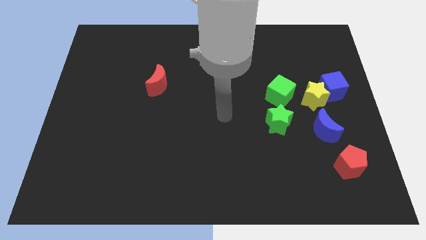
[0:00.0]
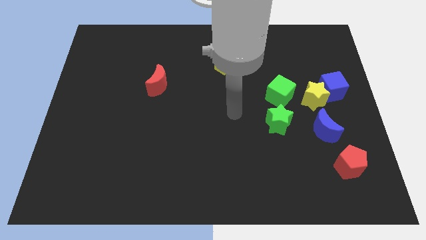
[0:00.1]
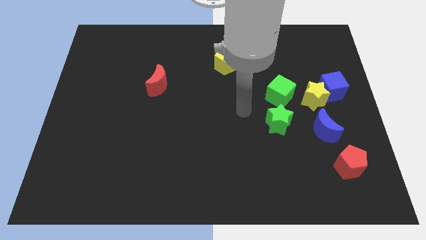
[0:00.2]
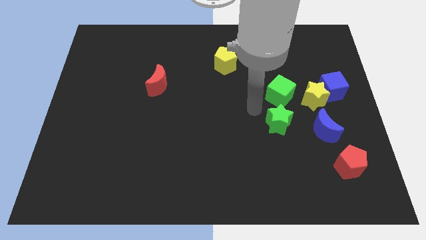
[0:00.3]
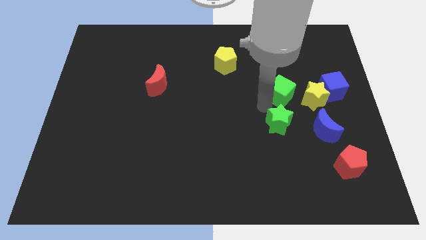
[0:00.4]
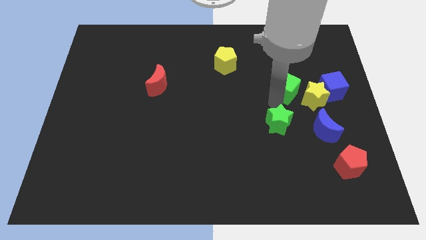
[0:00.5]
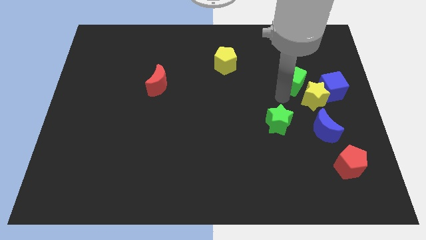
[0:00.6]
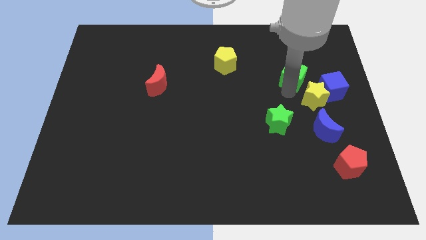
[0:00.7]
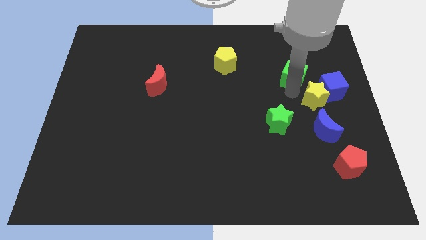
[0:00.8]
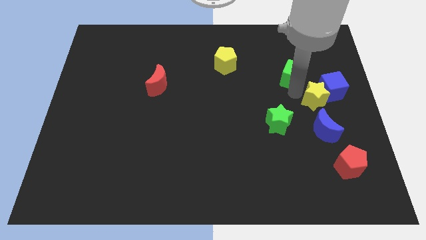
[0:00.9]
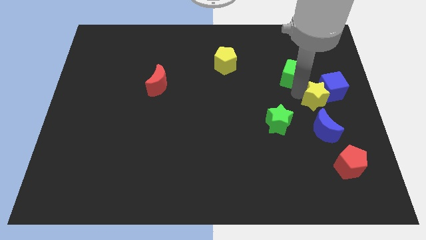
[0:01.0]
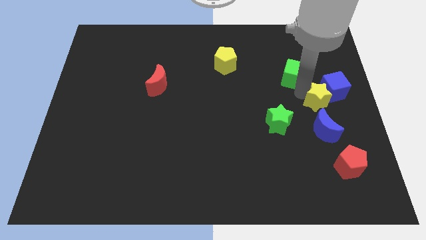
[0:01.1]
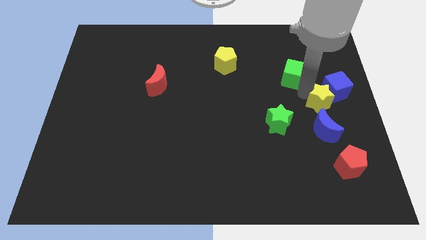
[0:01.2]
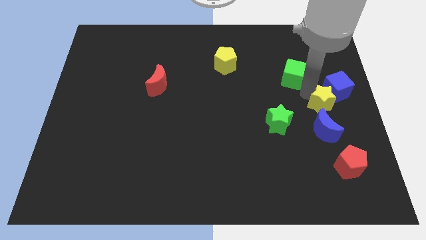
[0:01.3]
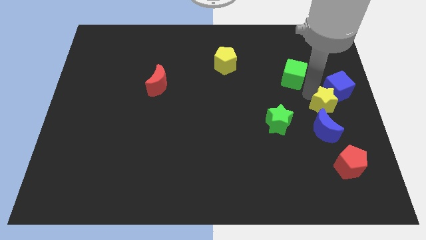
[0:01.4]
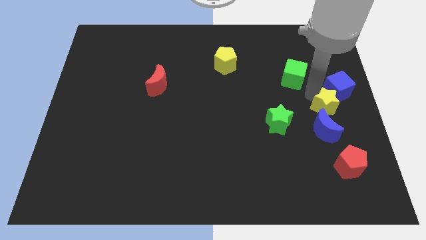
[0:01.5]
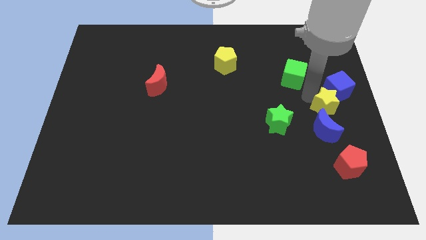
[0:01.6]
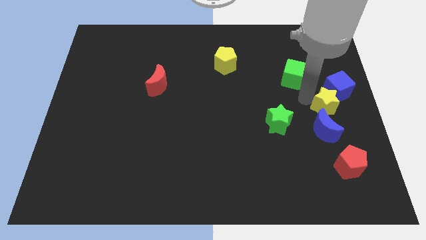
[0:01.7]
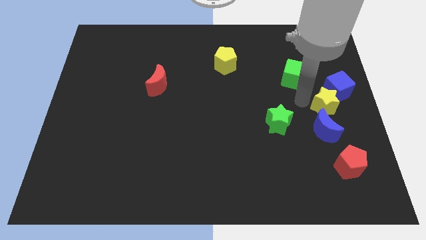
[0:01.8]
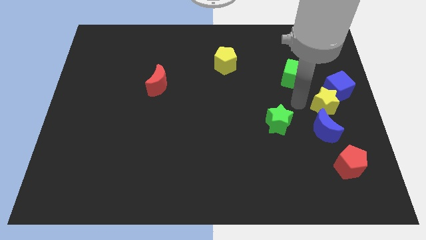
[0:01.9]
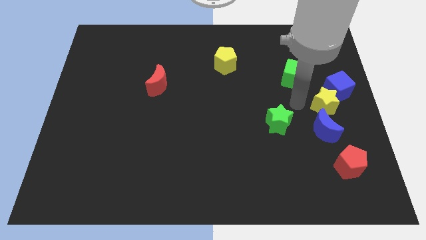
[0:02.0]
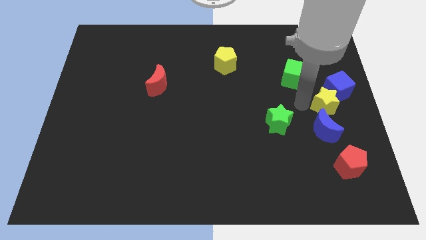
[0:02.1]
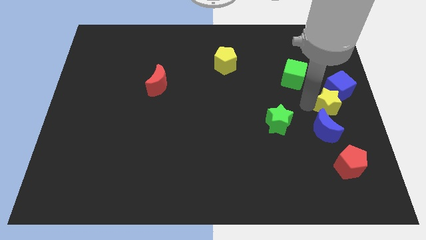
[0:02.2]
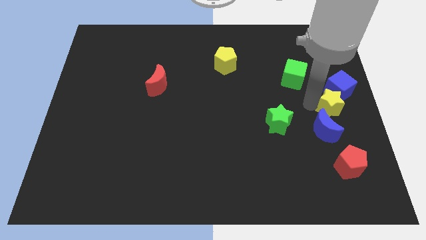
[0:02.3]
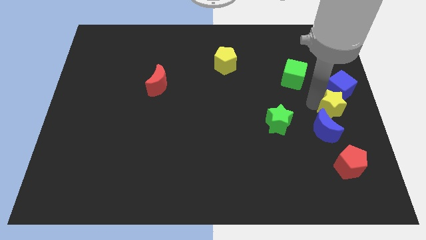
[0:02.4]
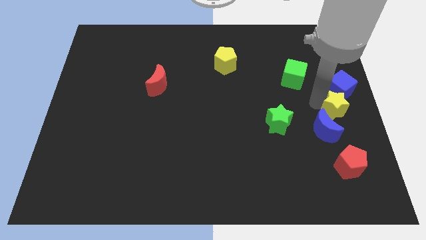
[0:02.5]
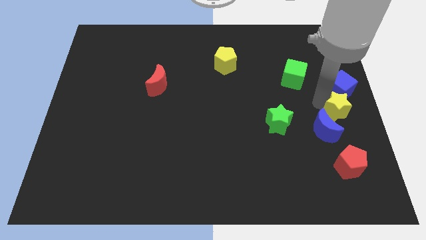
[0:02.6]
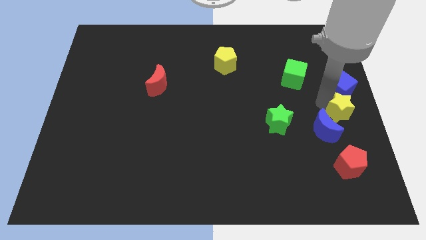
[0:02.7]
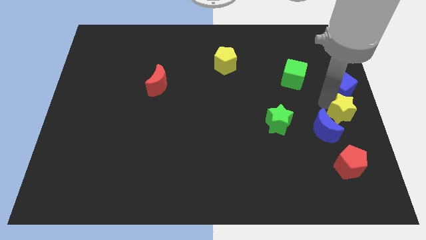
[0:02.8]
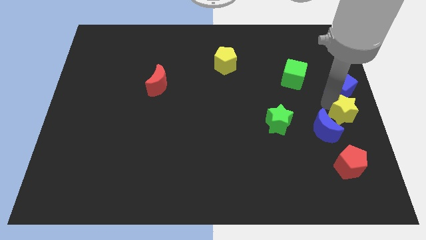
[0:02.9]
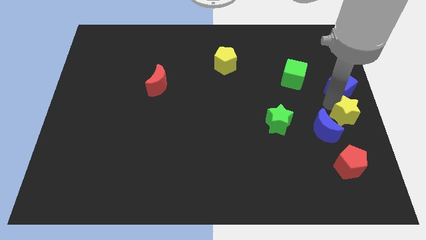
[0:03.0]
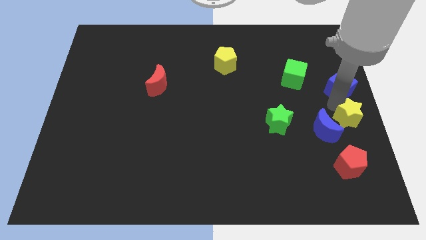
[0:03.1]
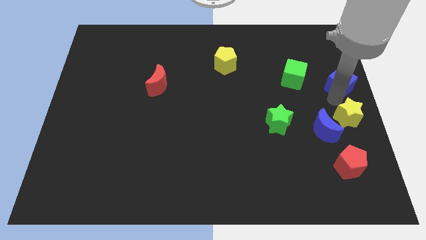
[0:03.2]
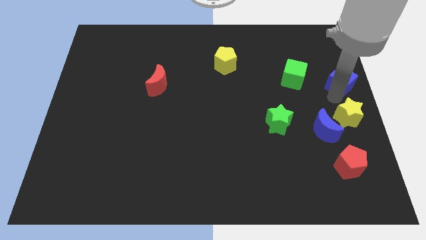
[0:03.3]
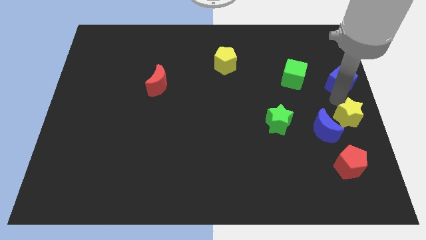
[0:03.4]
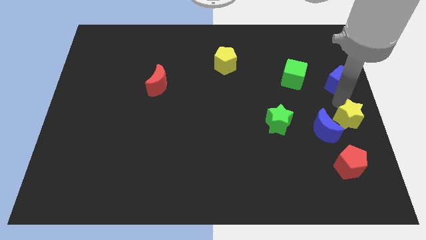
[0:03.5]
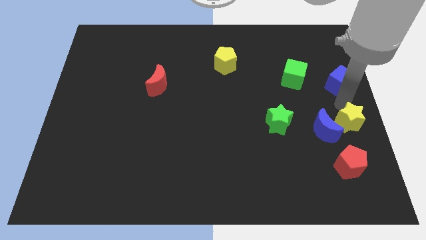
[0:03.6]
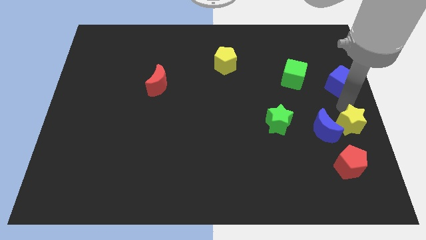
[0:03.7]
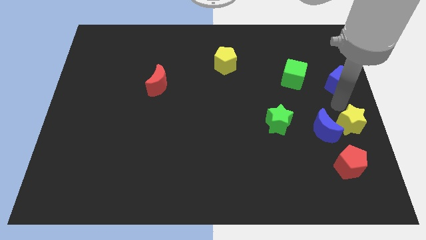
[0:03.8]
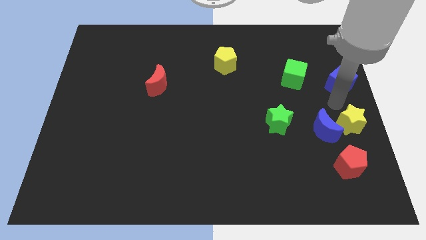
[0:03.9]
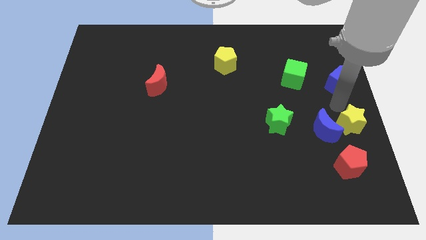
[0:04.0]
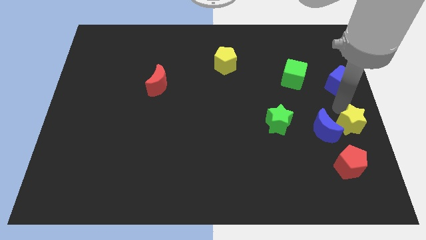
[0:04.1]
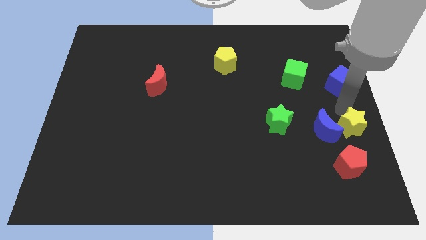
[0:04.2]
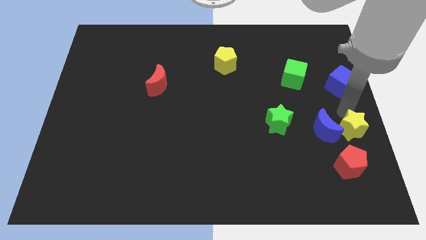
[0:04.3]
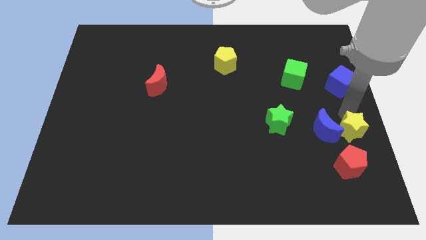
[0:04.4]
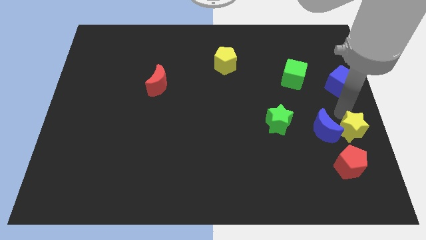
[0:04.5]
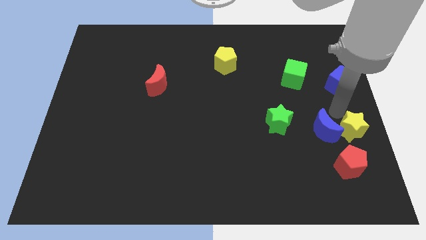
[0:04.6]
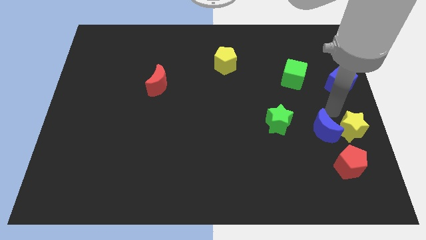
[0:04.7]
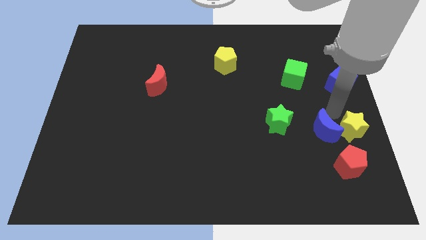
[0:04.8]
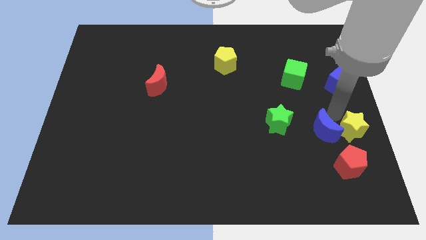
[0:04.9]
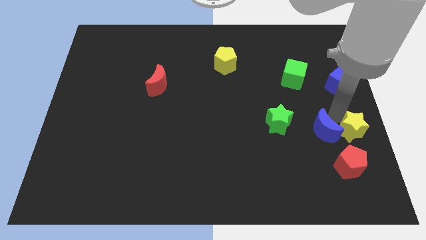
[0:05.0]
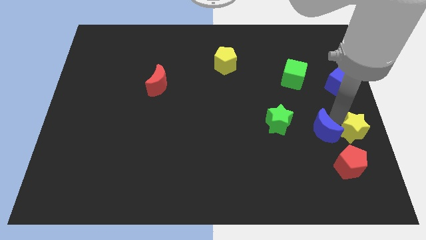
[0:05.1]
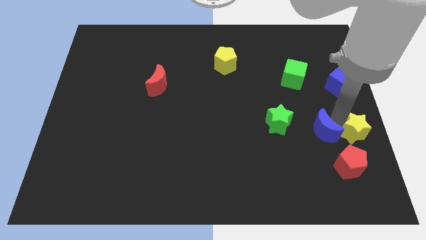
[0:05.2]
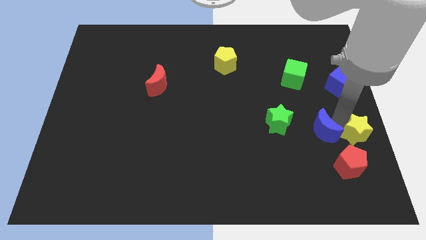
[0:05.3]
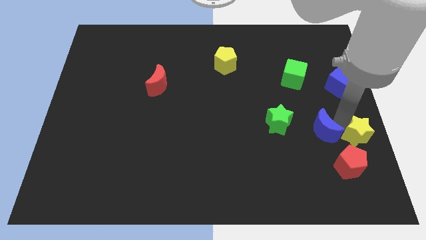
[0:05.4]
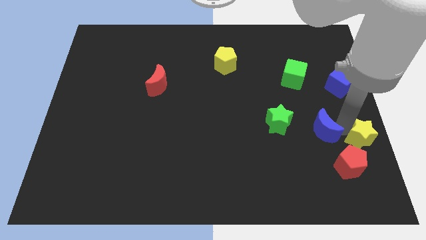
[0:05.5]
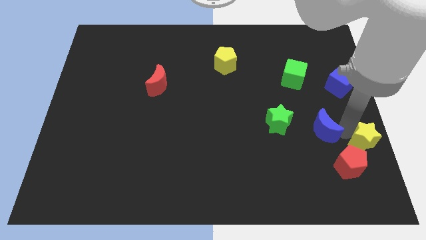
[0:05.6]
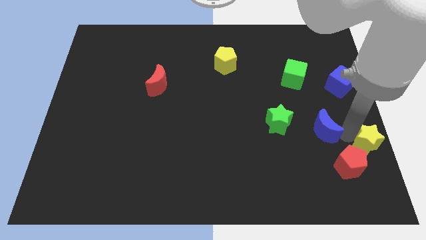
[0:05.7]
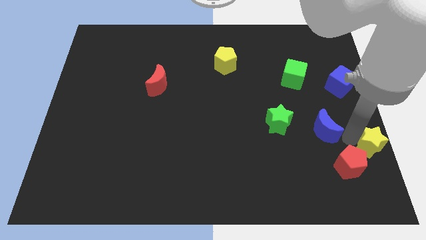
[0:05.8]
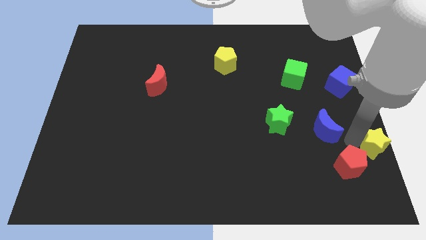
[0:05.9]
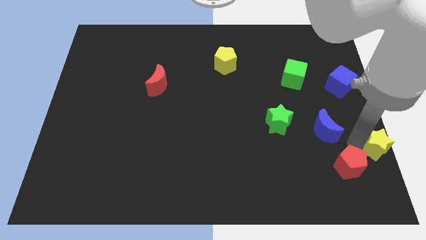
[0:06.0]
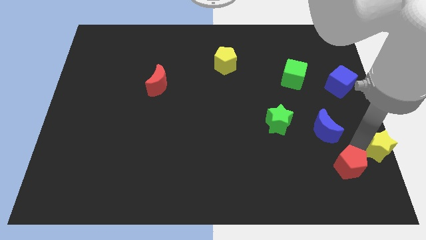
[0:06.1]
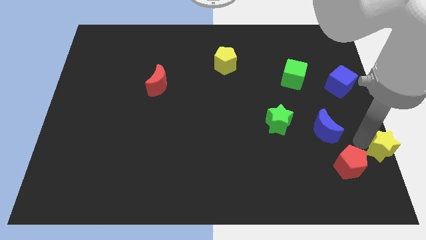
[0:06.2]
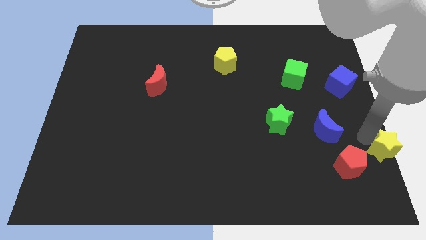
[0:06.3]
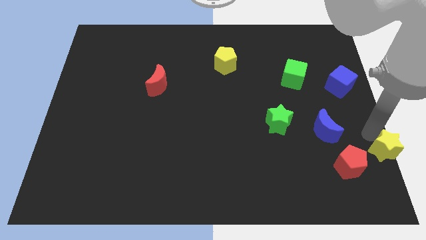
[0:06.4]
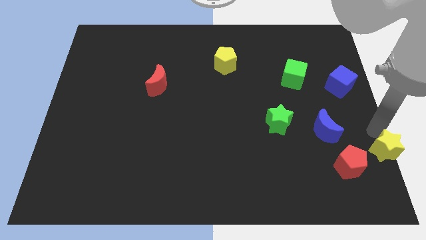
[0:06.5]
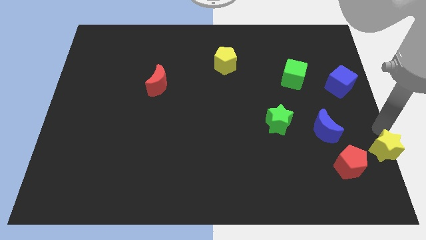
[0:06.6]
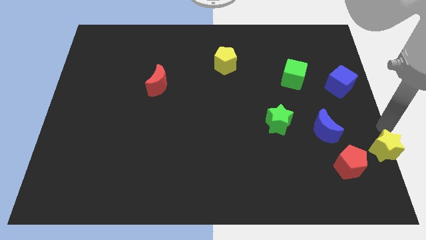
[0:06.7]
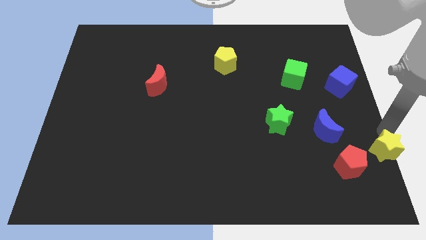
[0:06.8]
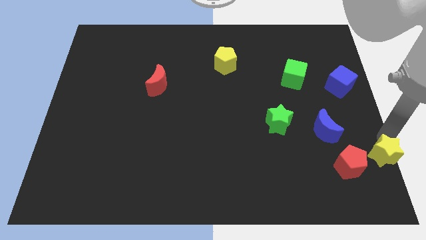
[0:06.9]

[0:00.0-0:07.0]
slide the yellow star to the lower right corner
